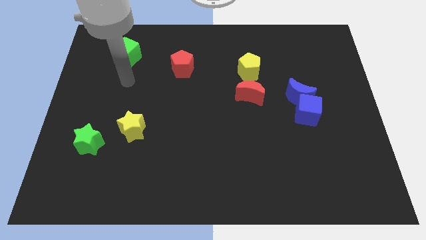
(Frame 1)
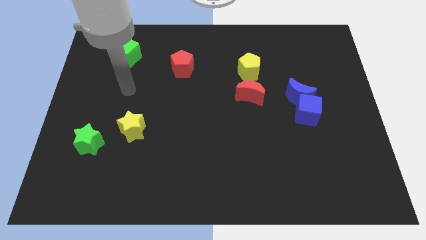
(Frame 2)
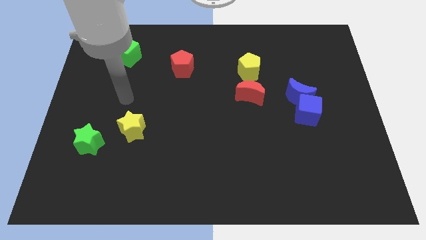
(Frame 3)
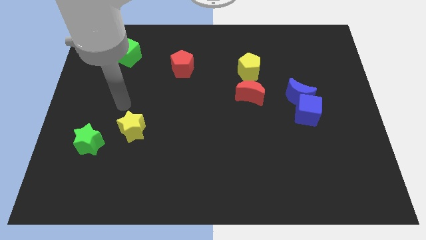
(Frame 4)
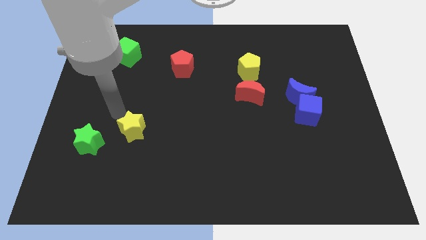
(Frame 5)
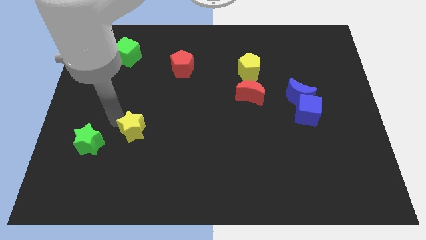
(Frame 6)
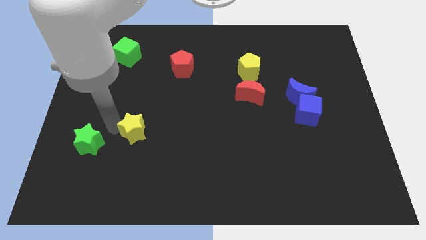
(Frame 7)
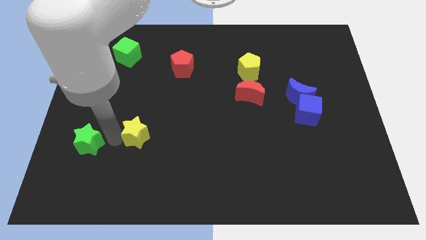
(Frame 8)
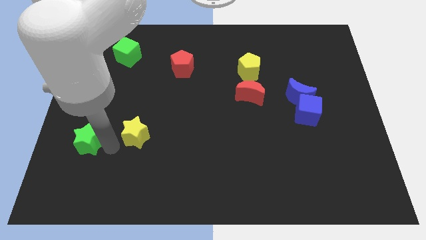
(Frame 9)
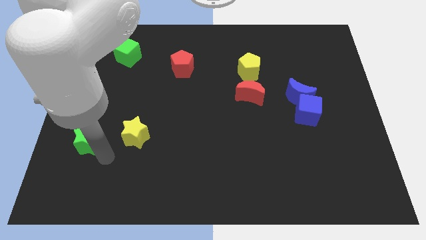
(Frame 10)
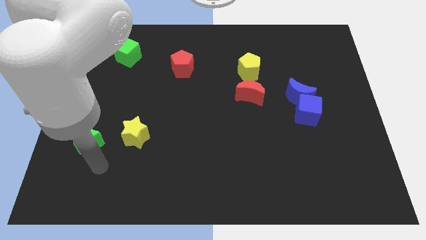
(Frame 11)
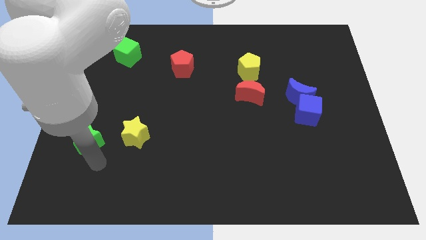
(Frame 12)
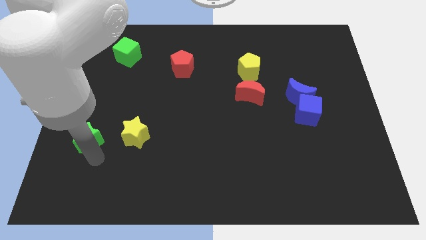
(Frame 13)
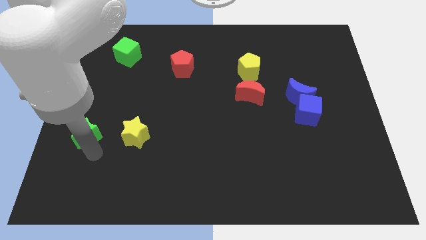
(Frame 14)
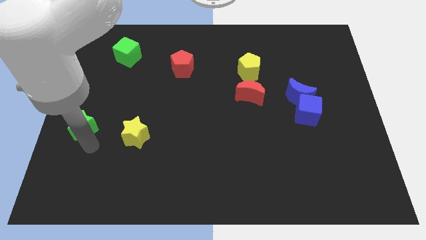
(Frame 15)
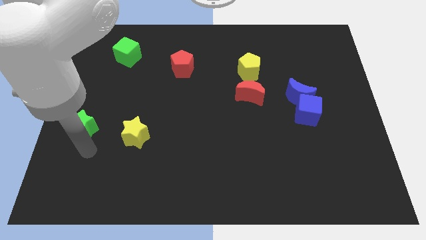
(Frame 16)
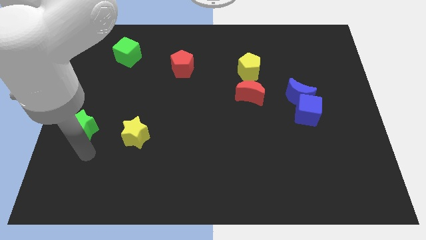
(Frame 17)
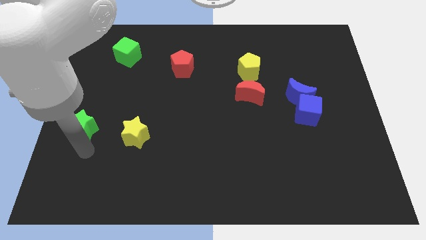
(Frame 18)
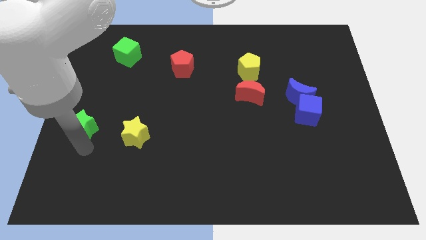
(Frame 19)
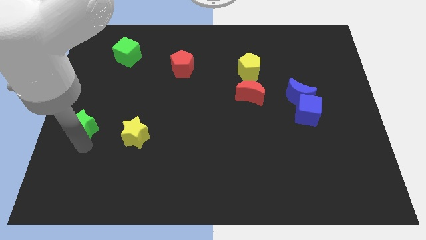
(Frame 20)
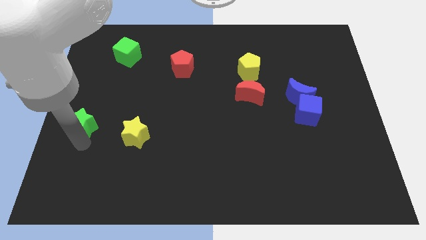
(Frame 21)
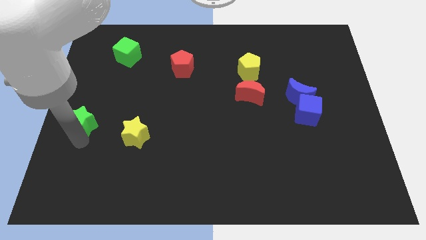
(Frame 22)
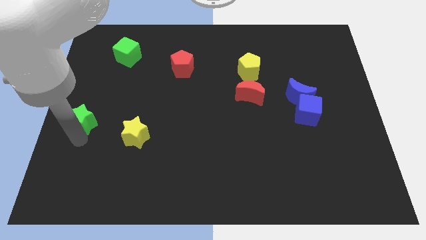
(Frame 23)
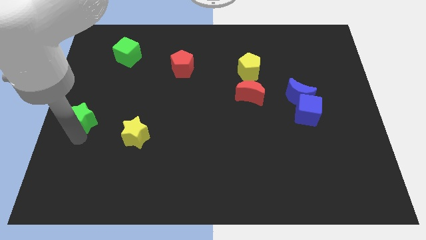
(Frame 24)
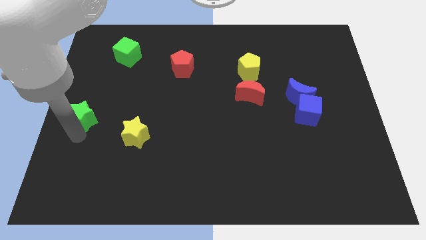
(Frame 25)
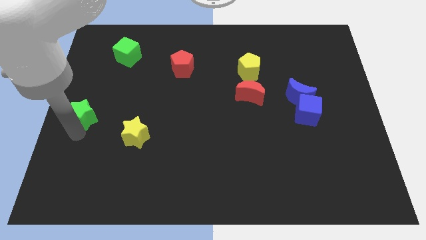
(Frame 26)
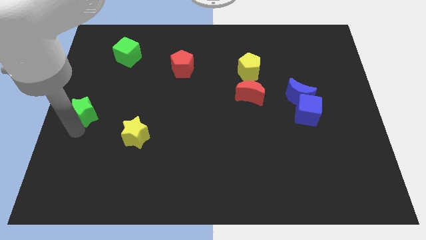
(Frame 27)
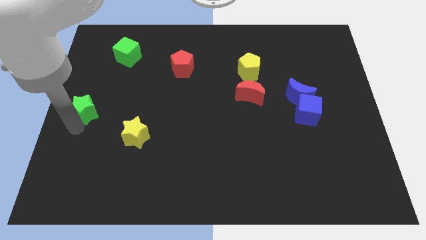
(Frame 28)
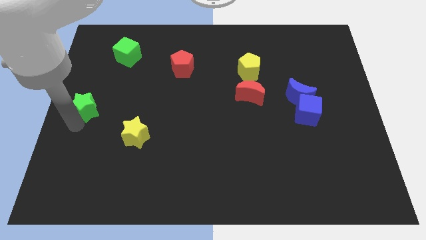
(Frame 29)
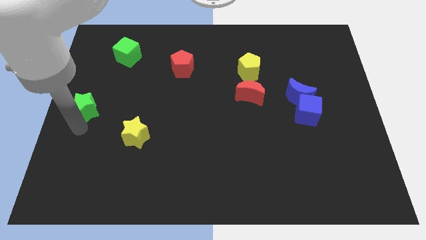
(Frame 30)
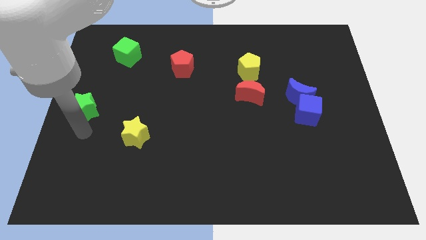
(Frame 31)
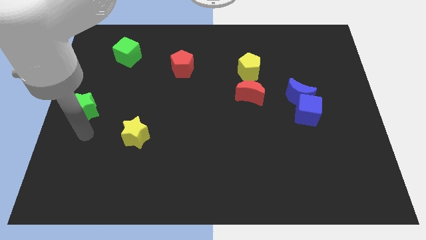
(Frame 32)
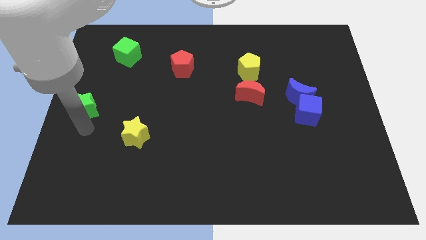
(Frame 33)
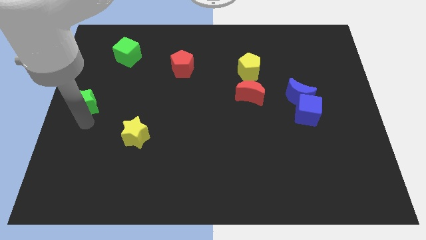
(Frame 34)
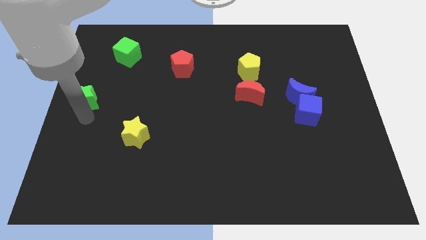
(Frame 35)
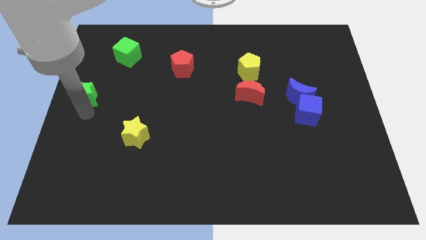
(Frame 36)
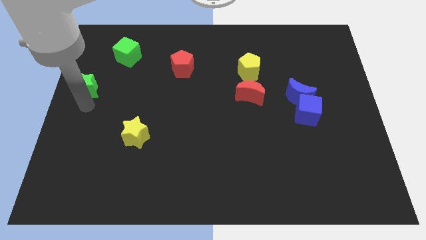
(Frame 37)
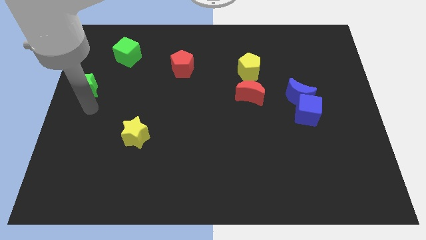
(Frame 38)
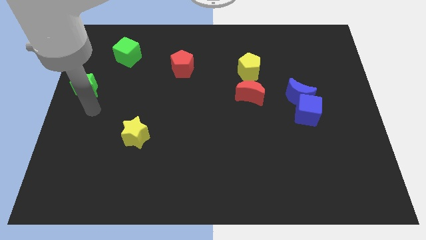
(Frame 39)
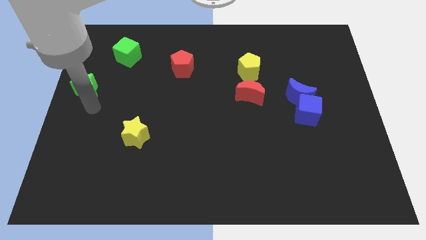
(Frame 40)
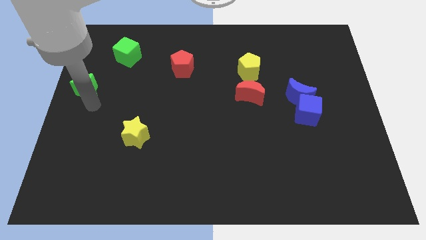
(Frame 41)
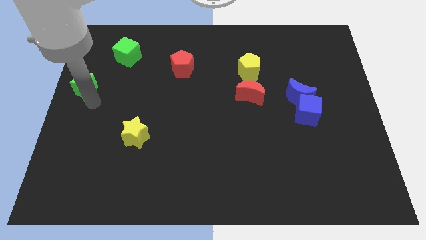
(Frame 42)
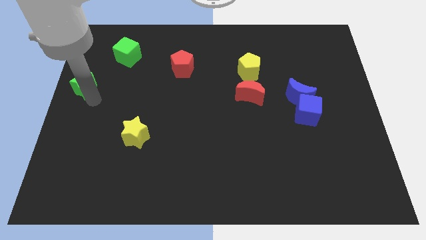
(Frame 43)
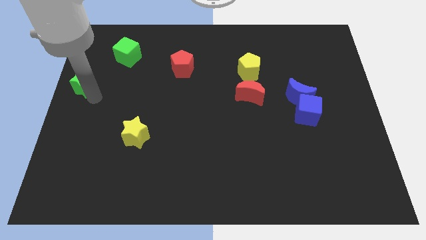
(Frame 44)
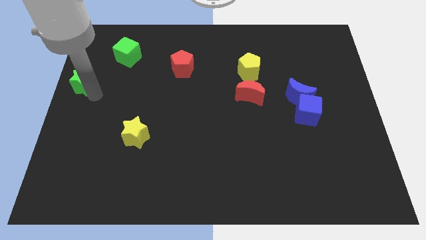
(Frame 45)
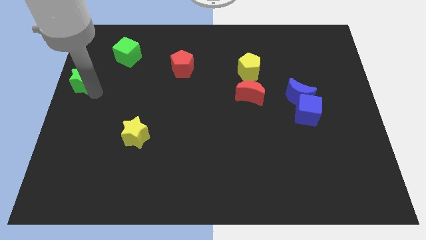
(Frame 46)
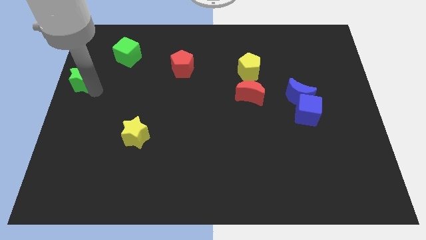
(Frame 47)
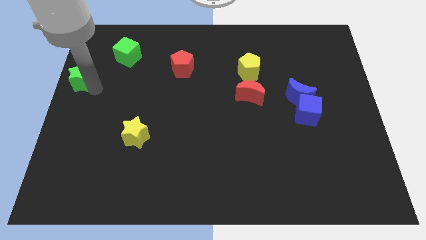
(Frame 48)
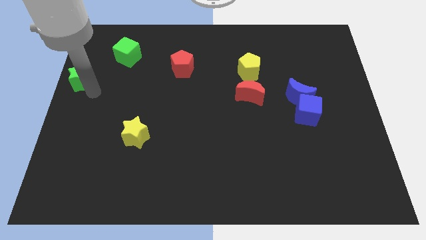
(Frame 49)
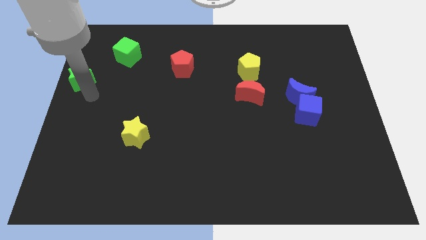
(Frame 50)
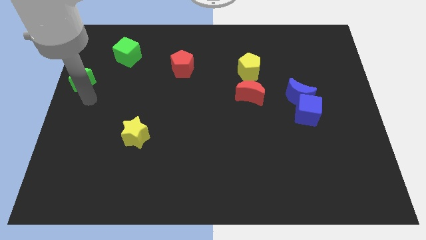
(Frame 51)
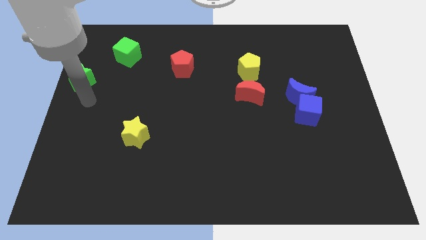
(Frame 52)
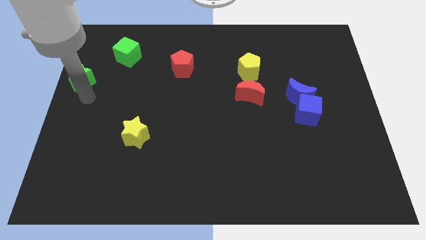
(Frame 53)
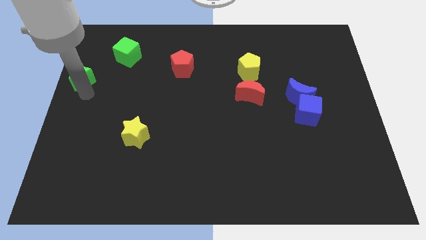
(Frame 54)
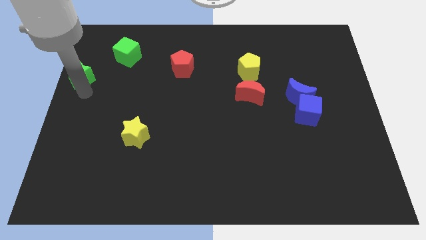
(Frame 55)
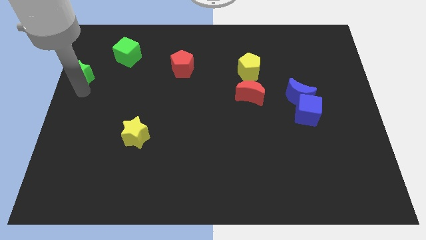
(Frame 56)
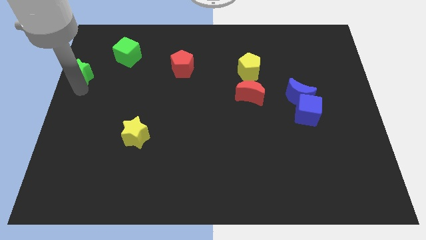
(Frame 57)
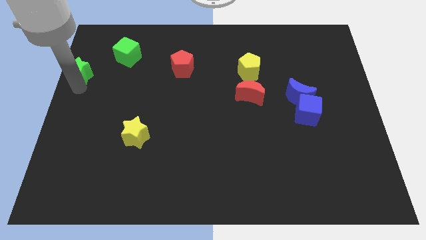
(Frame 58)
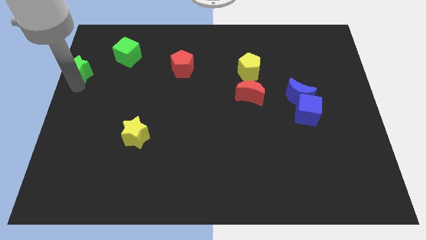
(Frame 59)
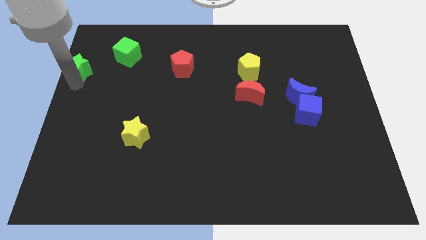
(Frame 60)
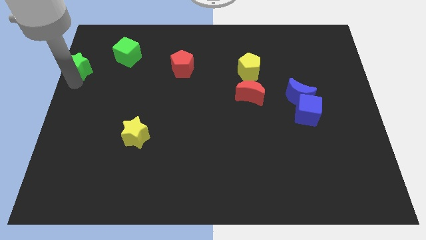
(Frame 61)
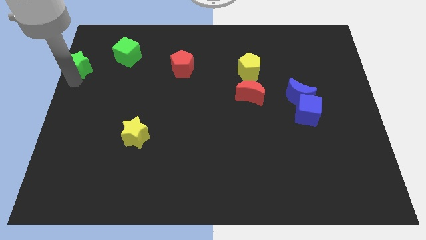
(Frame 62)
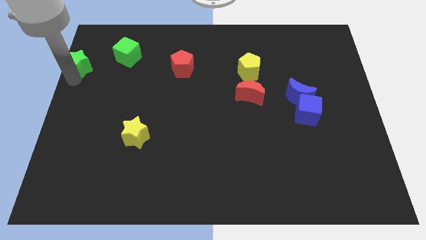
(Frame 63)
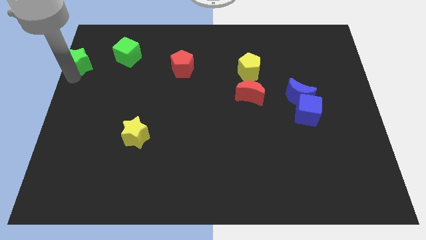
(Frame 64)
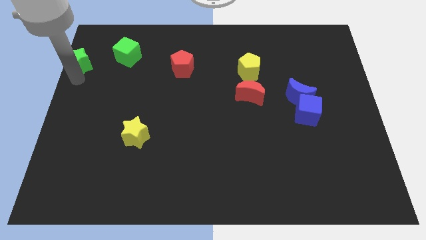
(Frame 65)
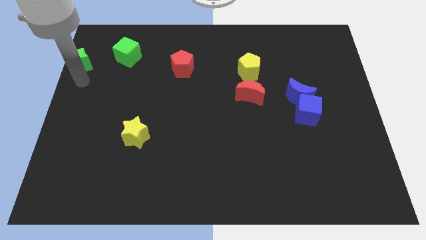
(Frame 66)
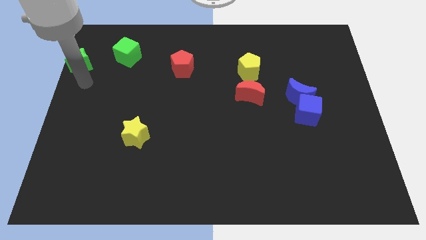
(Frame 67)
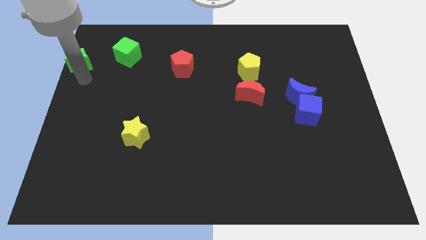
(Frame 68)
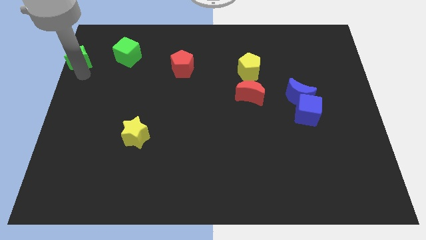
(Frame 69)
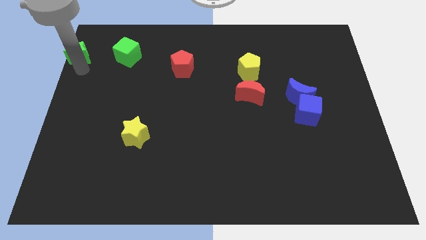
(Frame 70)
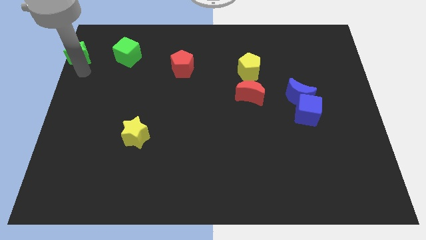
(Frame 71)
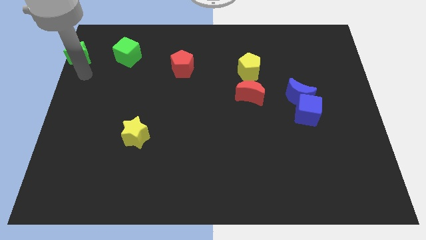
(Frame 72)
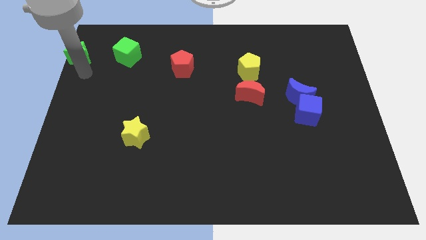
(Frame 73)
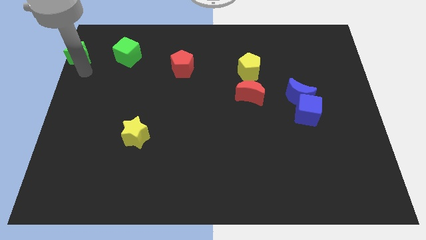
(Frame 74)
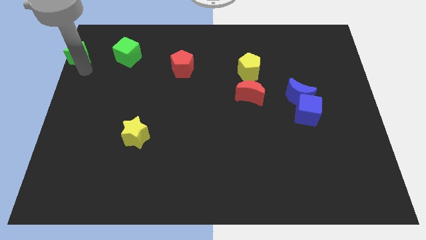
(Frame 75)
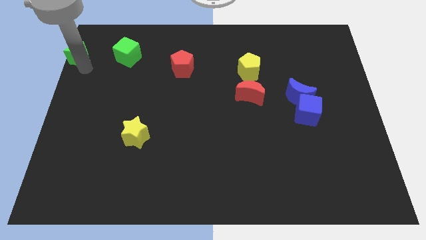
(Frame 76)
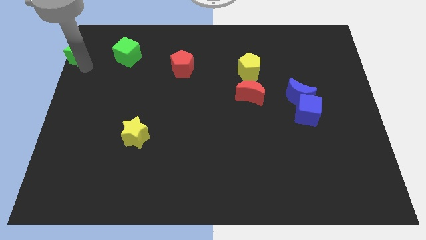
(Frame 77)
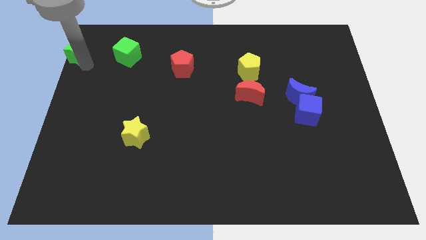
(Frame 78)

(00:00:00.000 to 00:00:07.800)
push the green star to the top left corner
